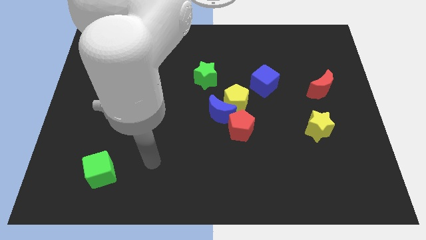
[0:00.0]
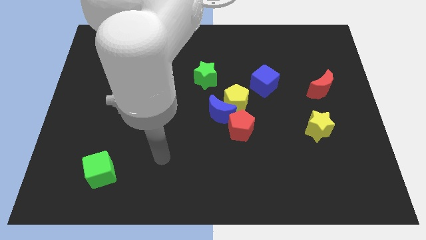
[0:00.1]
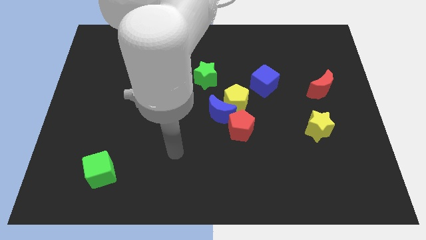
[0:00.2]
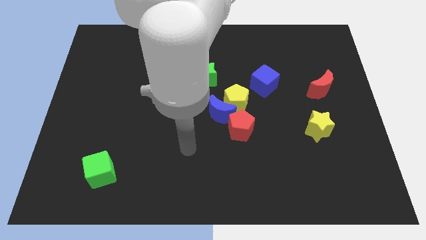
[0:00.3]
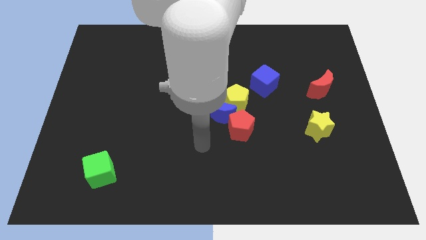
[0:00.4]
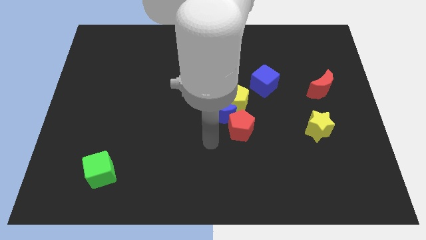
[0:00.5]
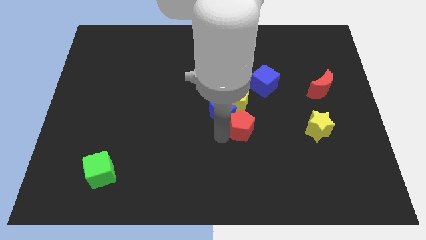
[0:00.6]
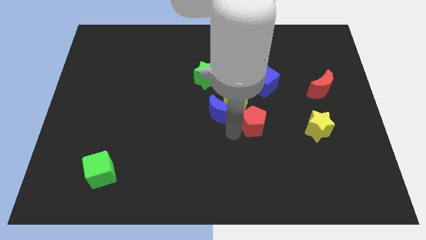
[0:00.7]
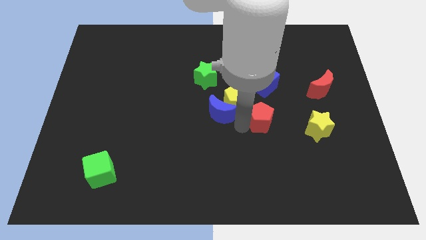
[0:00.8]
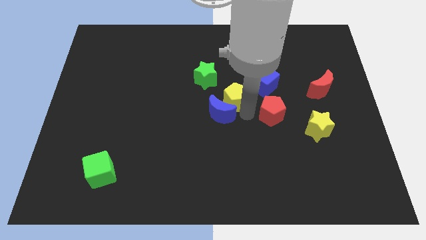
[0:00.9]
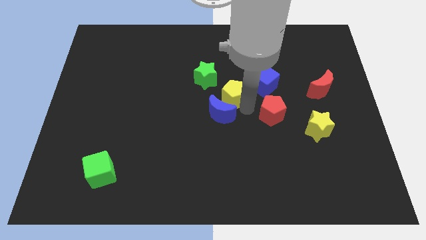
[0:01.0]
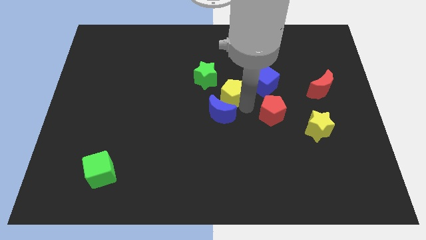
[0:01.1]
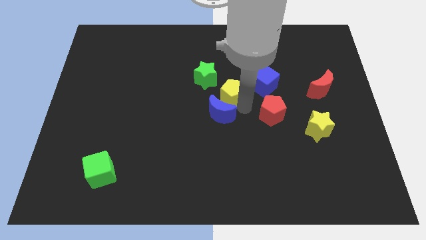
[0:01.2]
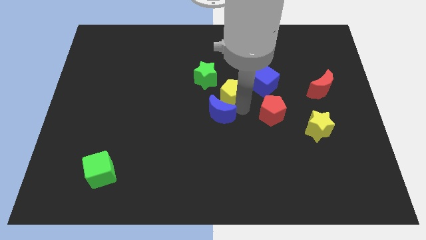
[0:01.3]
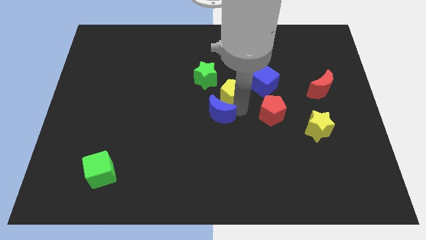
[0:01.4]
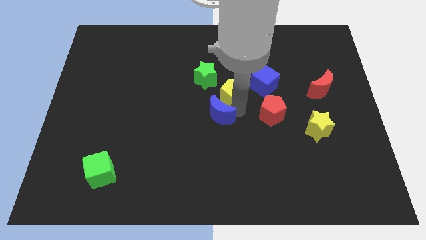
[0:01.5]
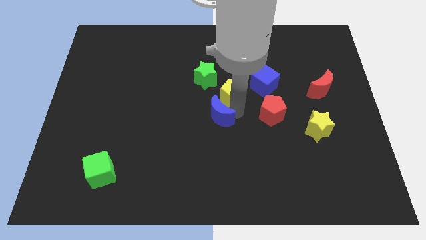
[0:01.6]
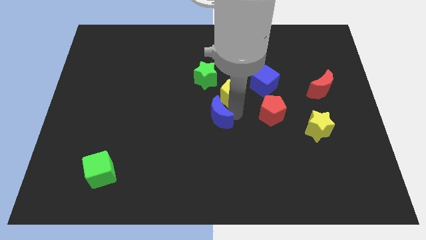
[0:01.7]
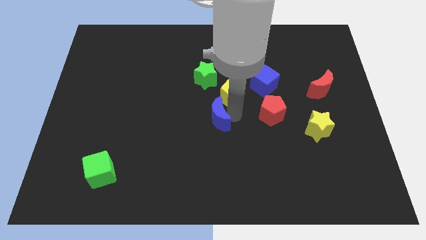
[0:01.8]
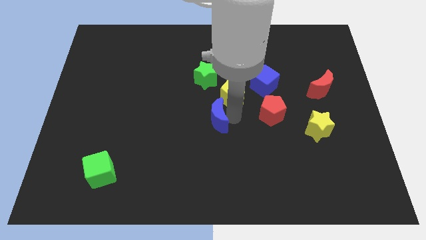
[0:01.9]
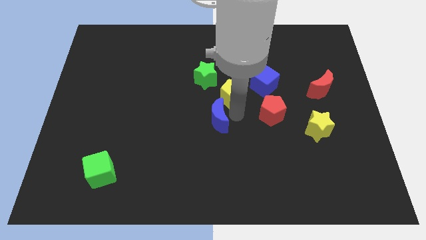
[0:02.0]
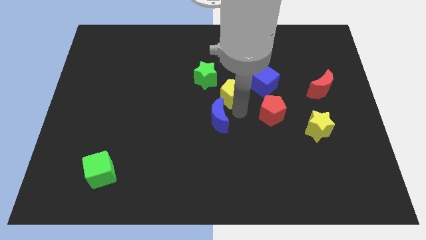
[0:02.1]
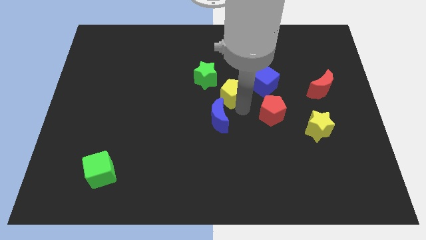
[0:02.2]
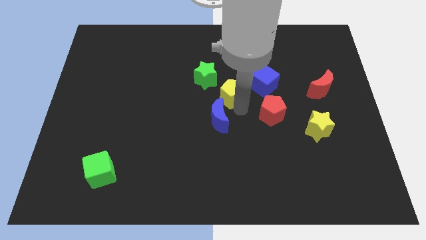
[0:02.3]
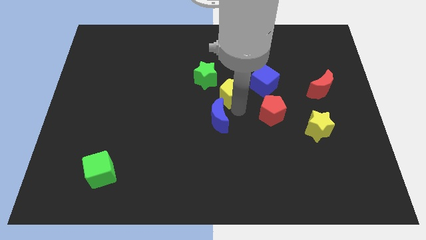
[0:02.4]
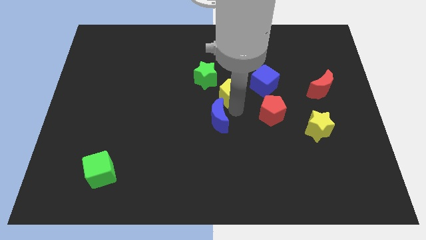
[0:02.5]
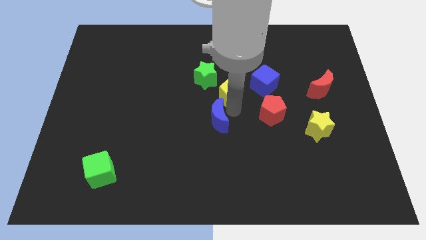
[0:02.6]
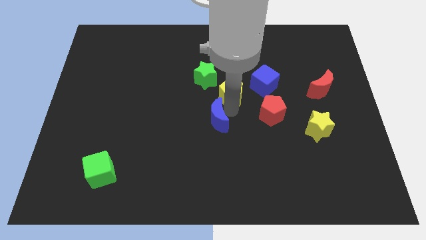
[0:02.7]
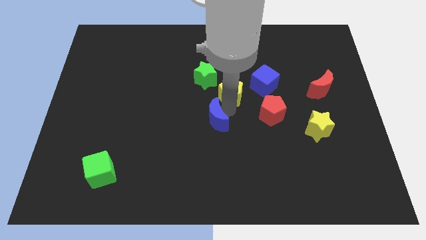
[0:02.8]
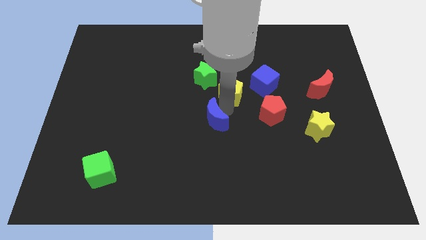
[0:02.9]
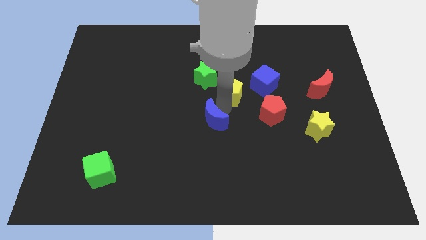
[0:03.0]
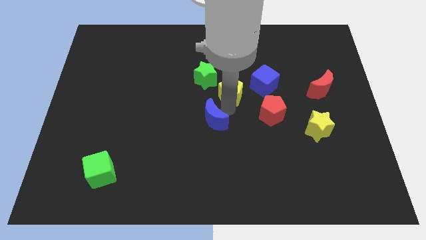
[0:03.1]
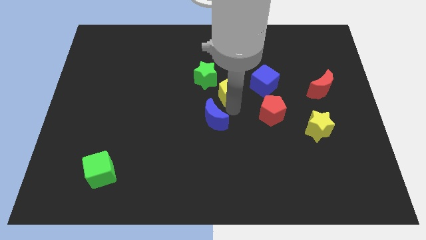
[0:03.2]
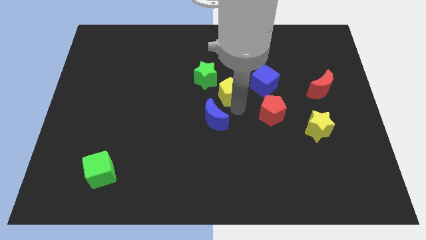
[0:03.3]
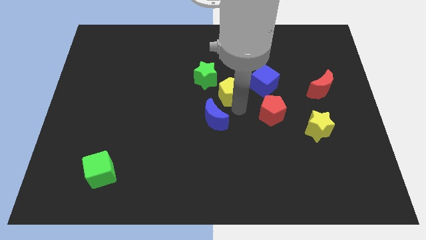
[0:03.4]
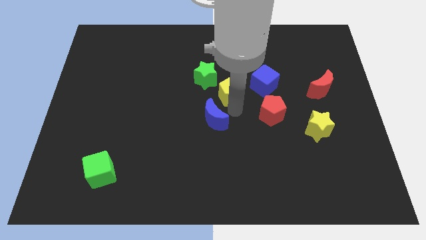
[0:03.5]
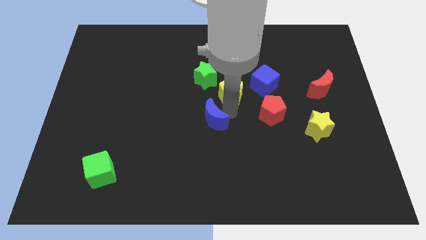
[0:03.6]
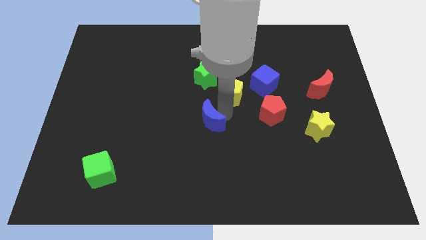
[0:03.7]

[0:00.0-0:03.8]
pull the blue moon apart from the yellow pentagon and red pentagon

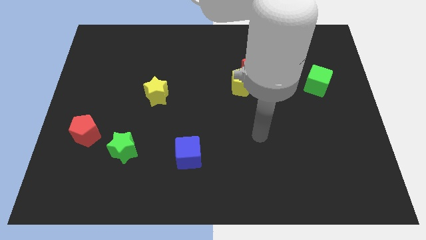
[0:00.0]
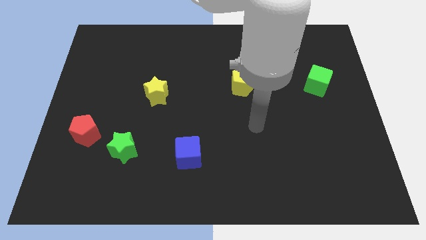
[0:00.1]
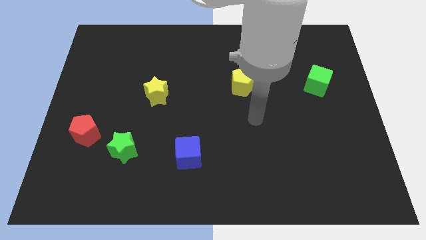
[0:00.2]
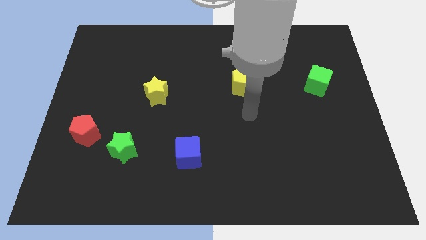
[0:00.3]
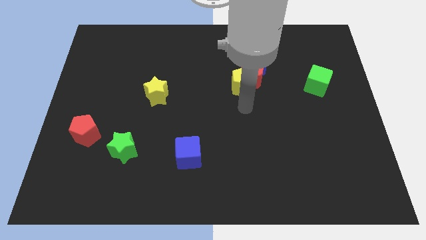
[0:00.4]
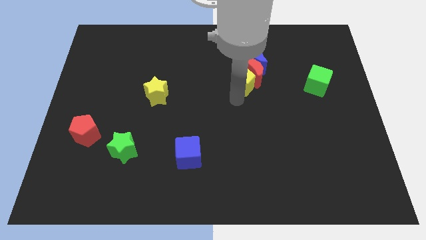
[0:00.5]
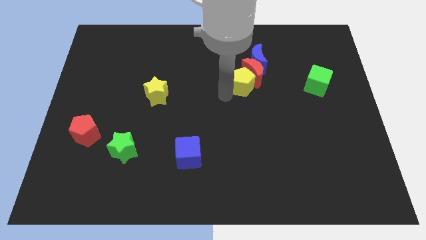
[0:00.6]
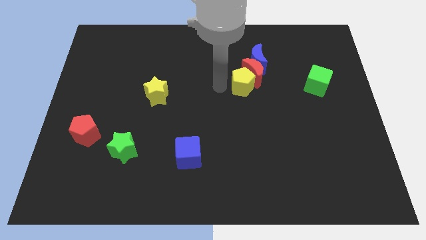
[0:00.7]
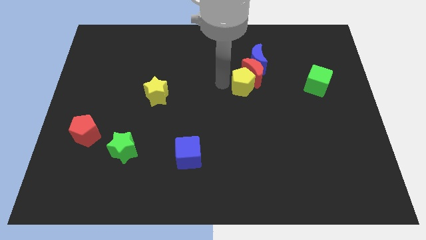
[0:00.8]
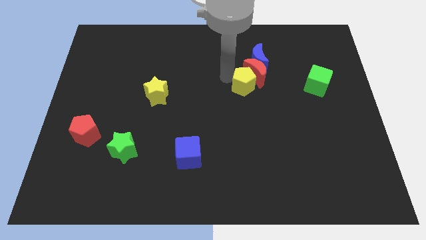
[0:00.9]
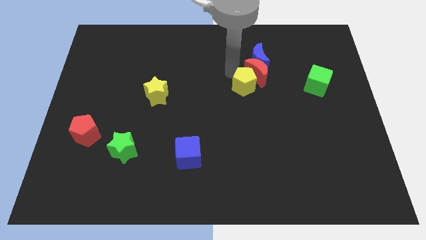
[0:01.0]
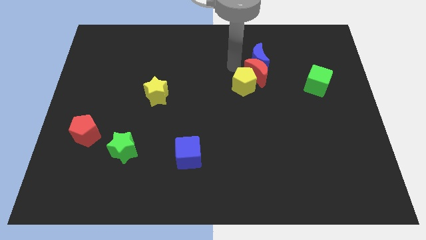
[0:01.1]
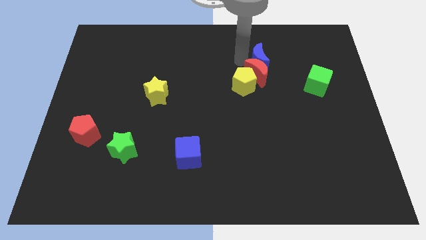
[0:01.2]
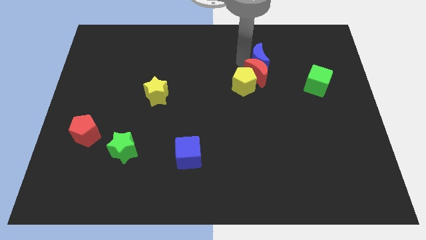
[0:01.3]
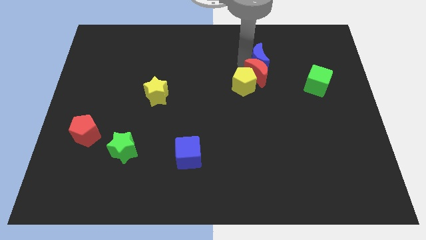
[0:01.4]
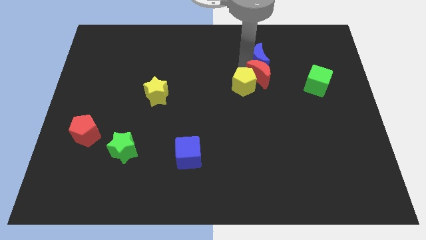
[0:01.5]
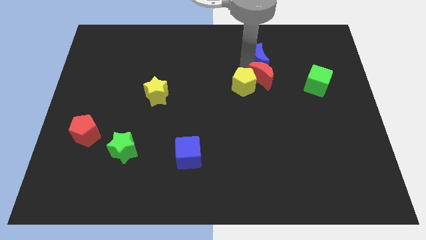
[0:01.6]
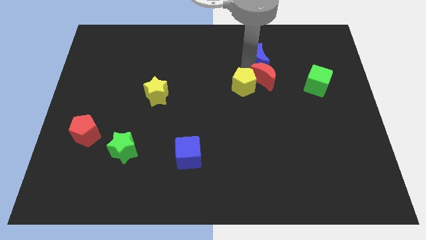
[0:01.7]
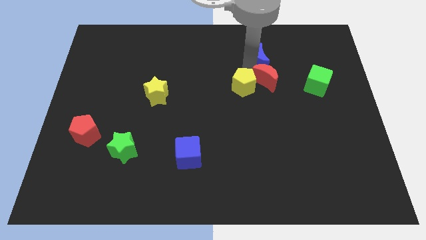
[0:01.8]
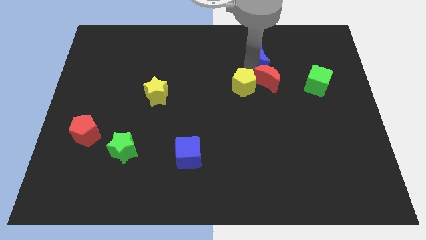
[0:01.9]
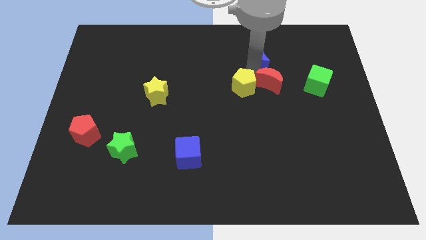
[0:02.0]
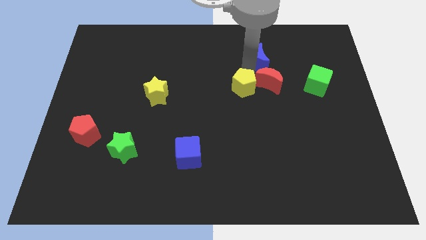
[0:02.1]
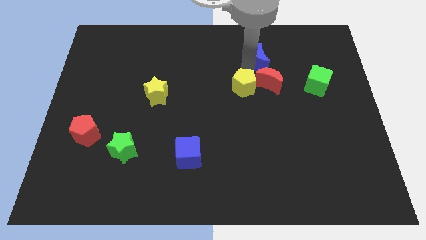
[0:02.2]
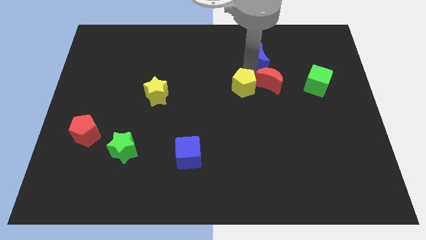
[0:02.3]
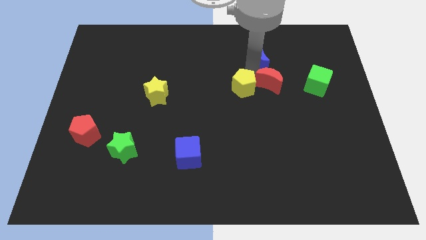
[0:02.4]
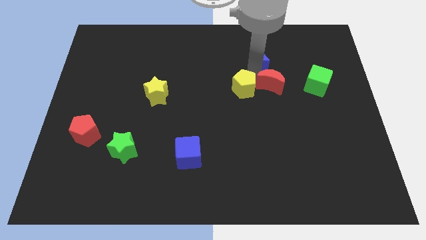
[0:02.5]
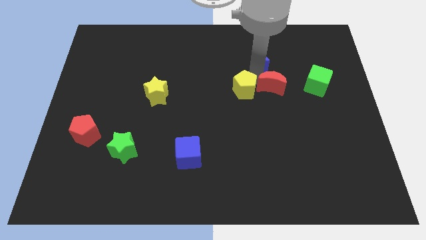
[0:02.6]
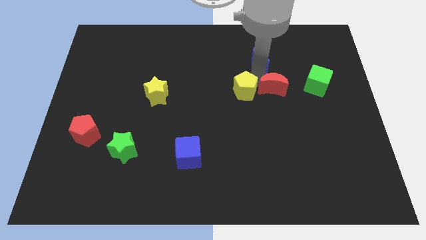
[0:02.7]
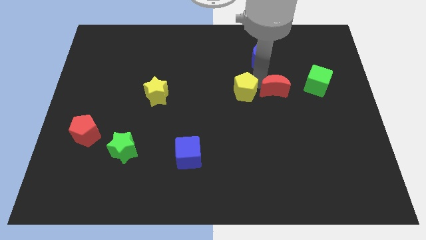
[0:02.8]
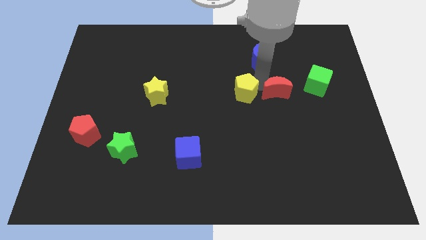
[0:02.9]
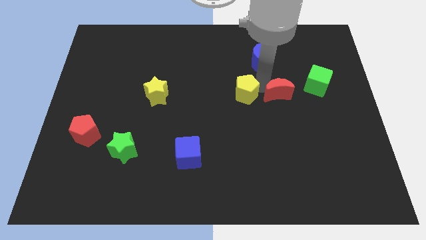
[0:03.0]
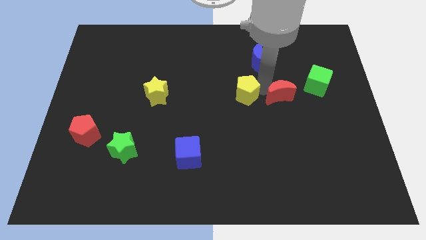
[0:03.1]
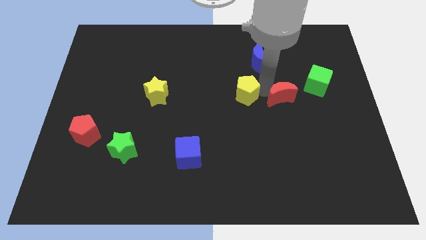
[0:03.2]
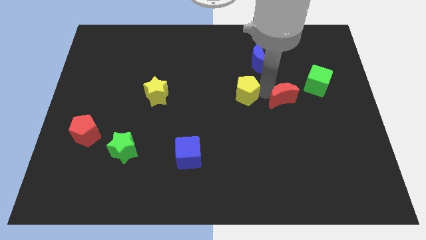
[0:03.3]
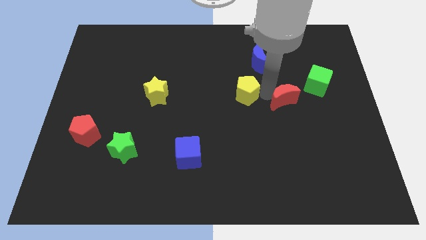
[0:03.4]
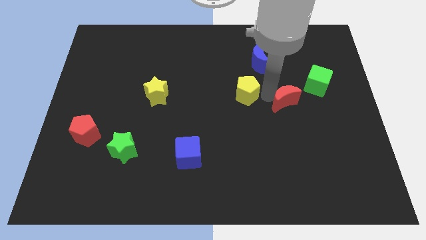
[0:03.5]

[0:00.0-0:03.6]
pull the red moon apart from the blue moon and yellow pentagon

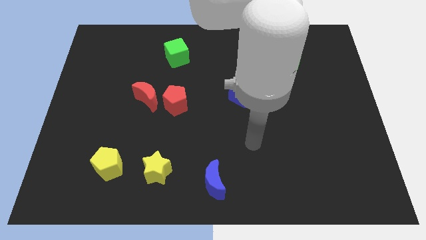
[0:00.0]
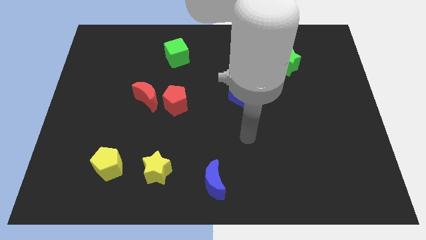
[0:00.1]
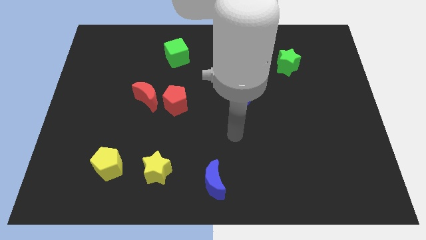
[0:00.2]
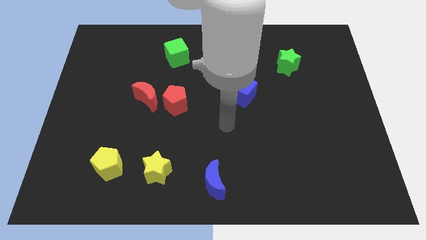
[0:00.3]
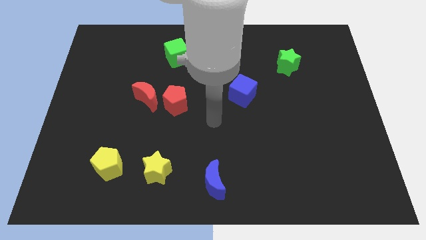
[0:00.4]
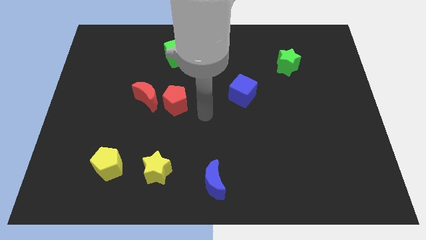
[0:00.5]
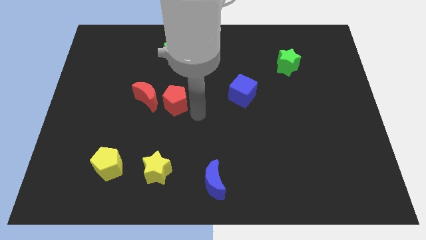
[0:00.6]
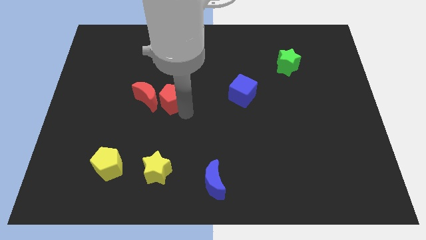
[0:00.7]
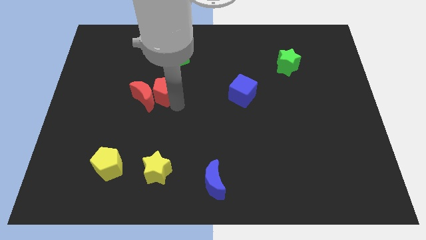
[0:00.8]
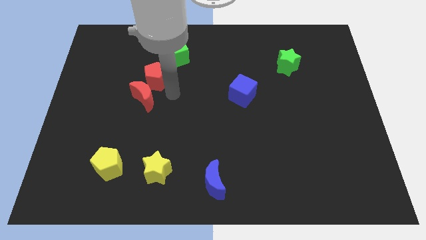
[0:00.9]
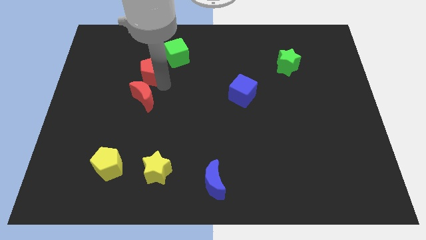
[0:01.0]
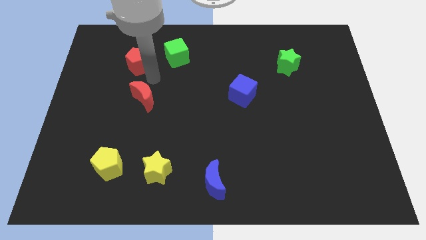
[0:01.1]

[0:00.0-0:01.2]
pull the red moon apart from the red pentagon

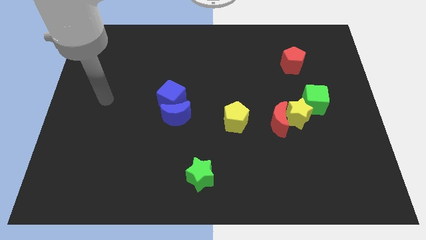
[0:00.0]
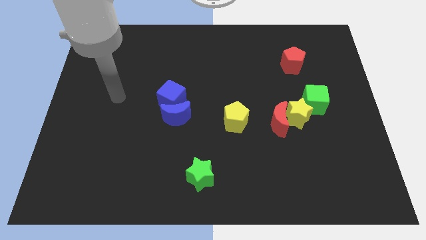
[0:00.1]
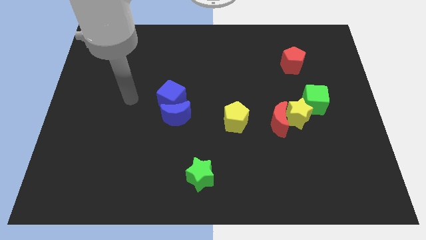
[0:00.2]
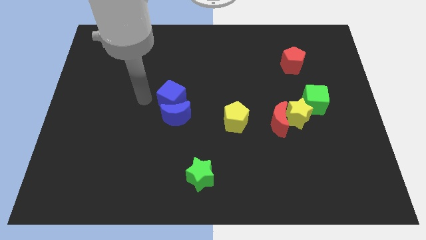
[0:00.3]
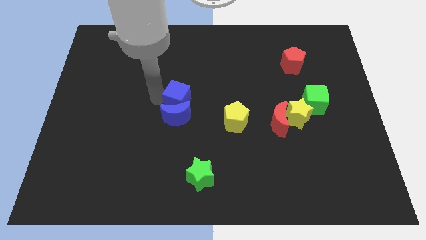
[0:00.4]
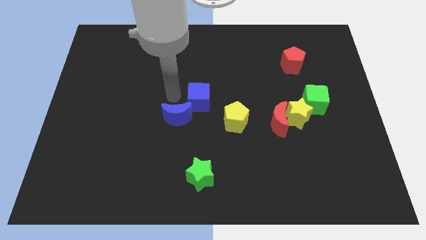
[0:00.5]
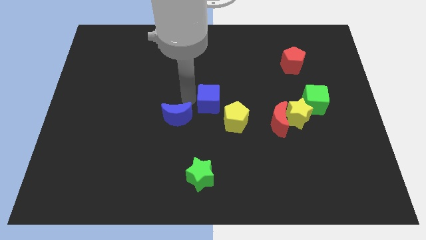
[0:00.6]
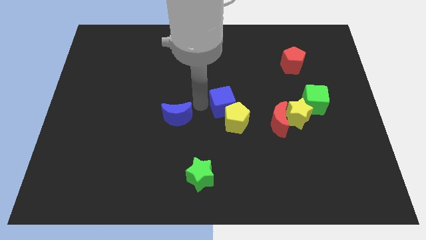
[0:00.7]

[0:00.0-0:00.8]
pull the blue moon apart from the blue cube

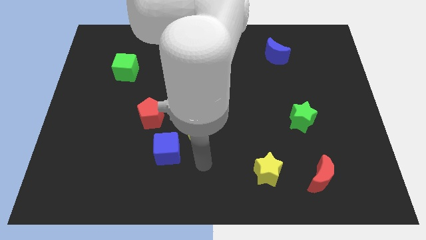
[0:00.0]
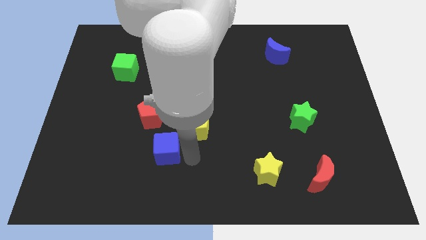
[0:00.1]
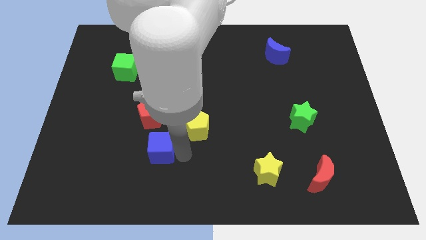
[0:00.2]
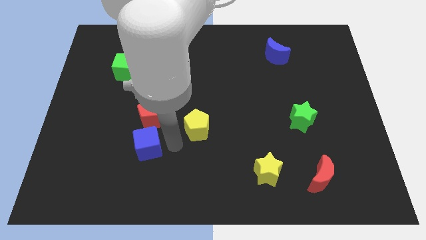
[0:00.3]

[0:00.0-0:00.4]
pull the yellow pentagon apart from the blue cube